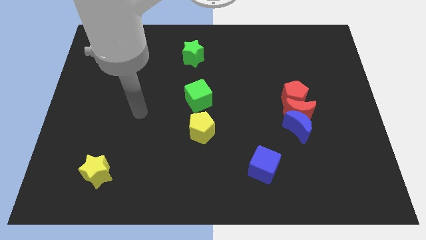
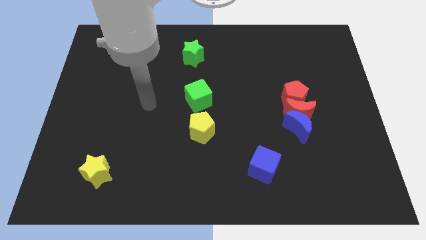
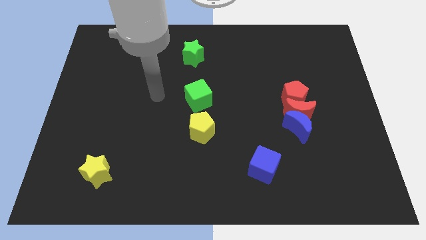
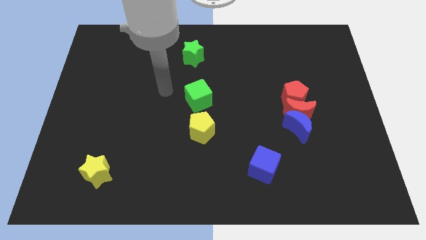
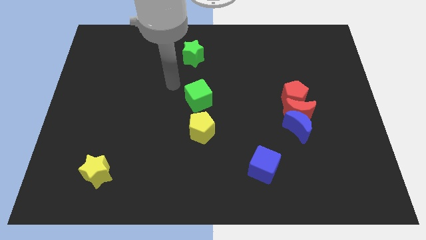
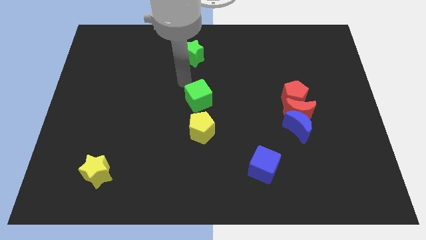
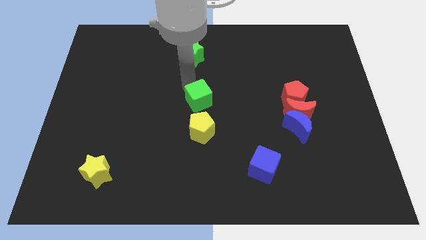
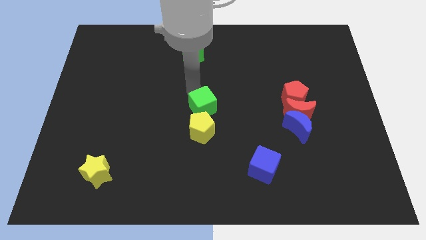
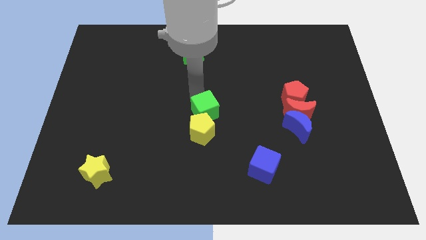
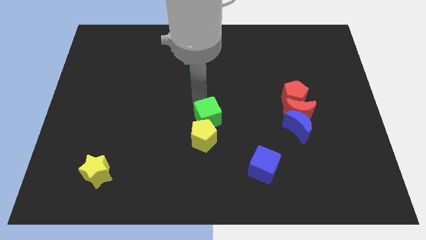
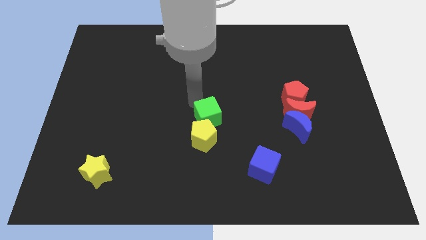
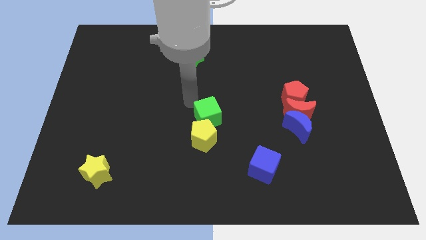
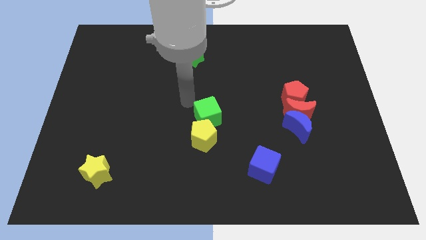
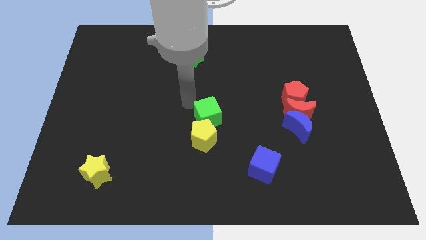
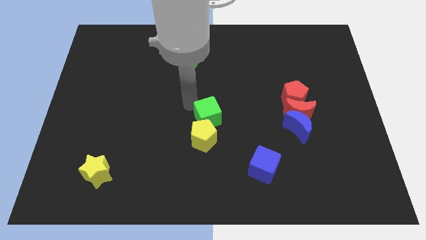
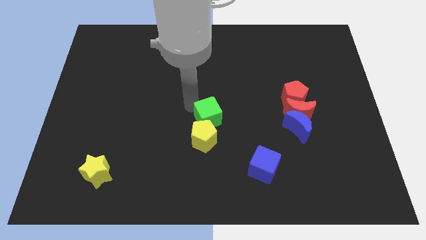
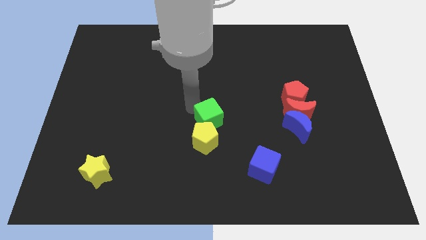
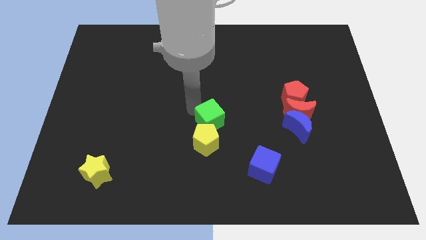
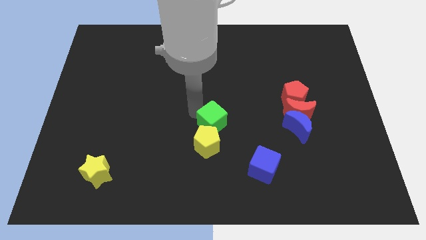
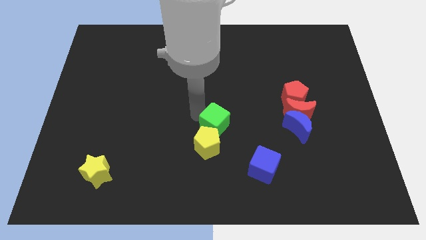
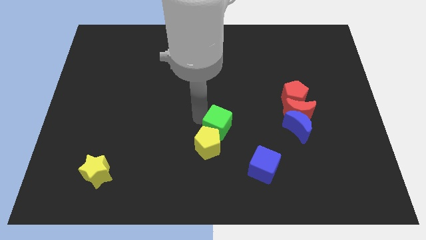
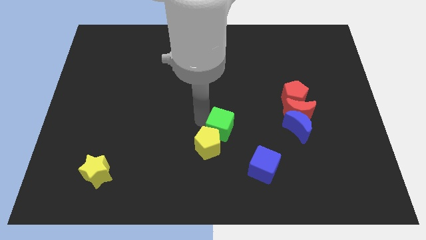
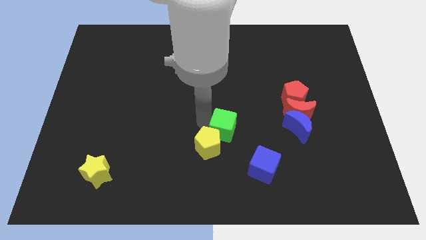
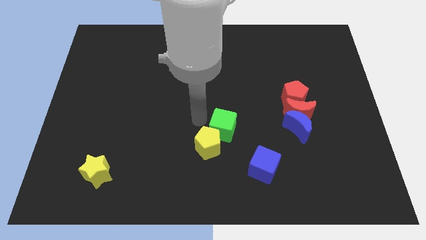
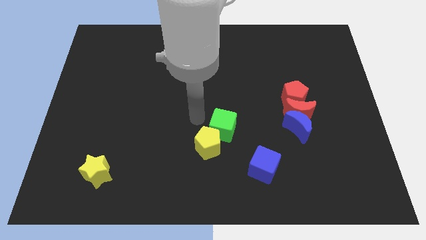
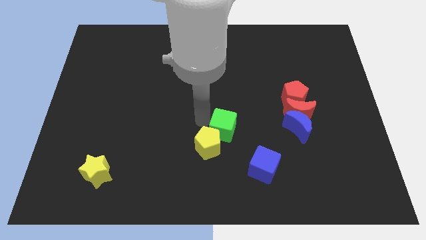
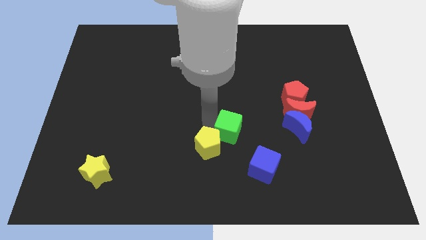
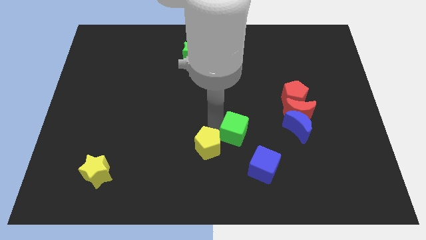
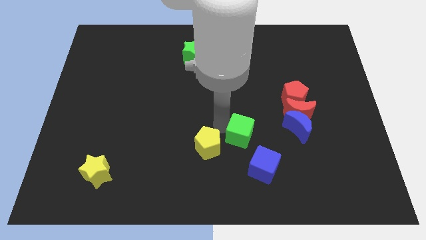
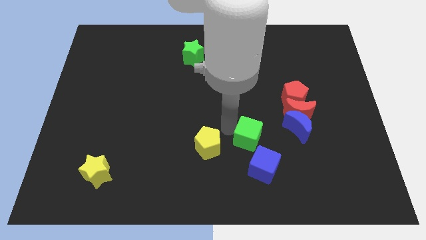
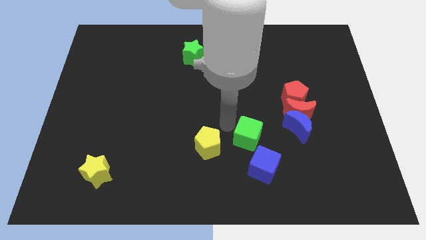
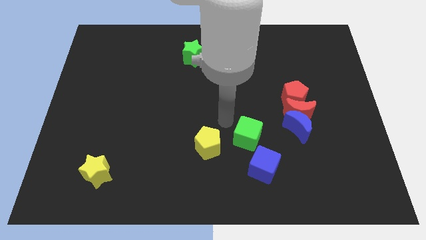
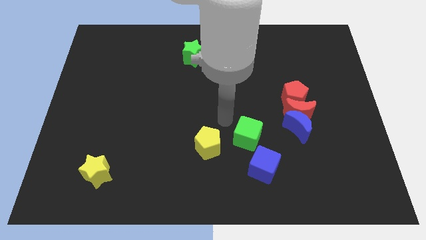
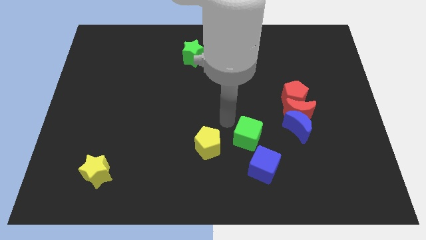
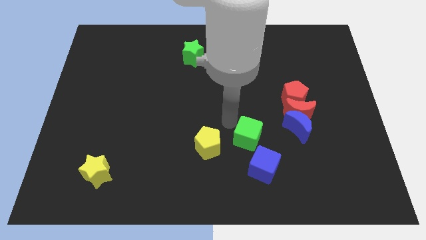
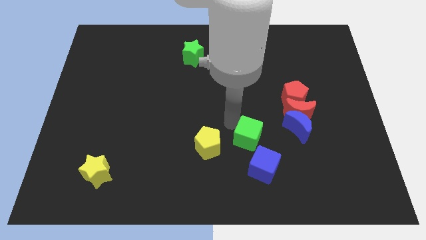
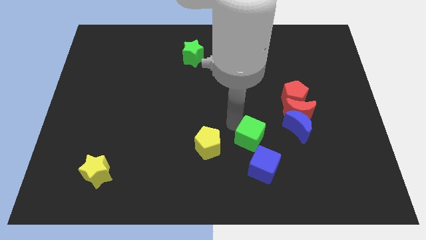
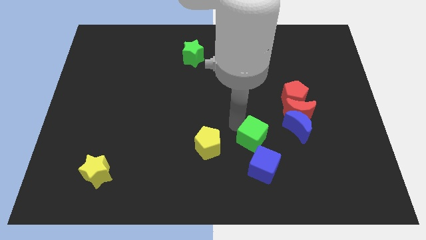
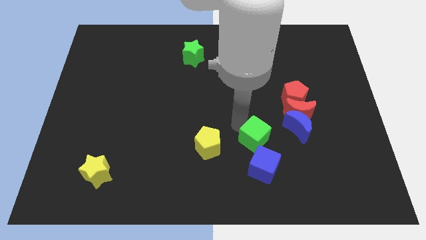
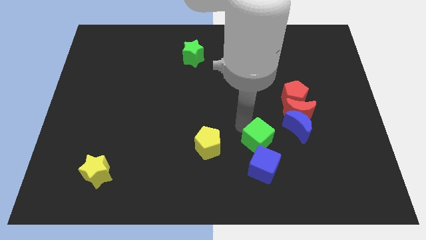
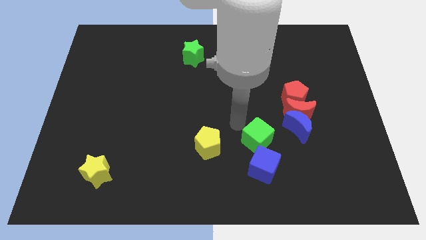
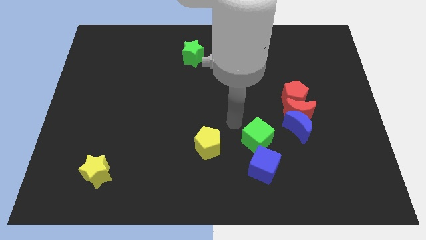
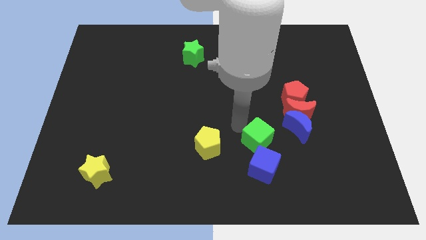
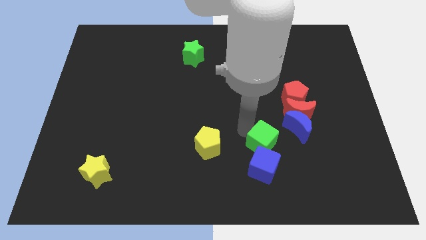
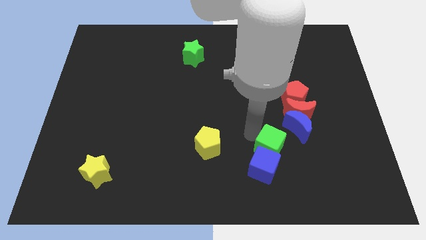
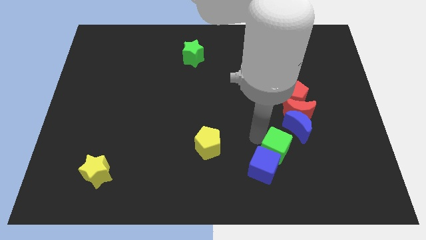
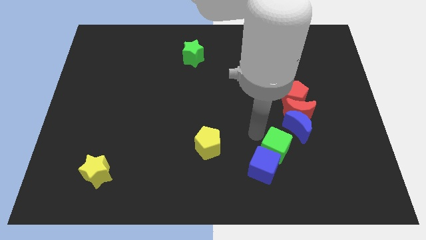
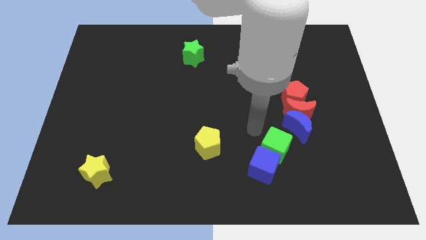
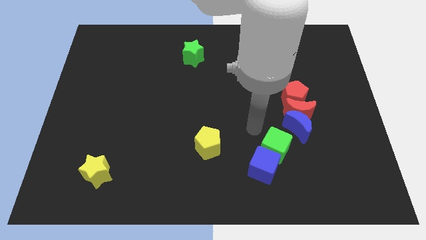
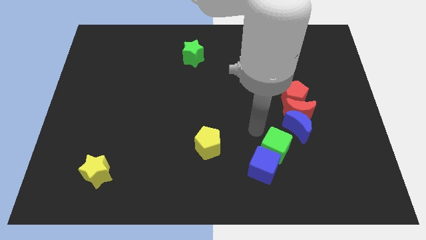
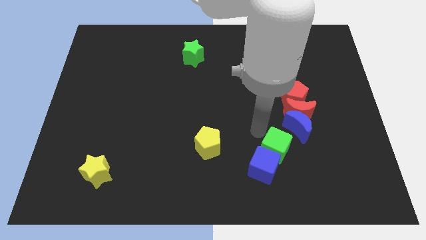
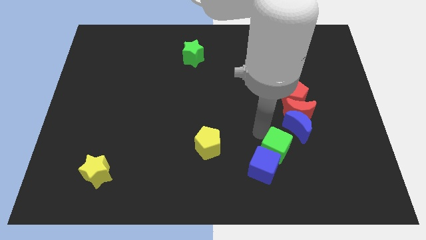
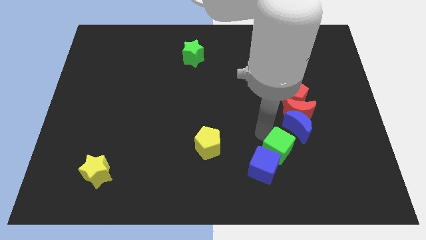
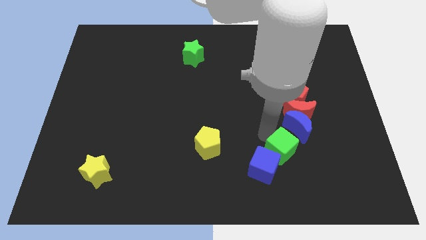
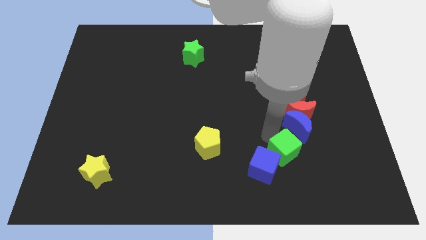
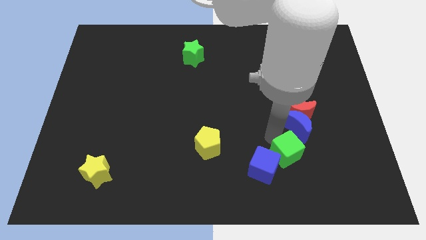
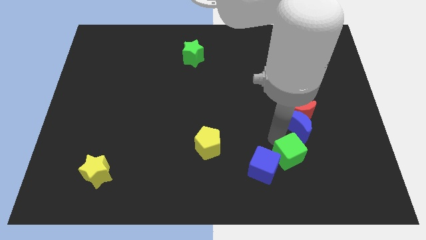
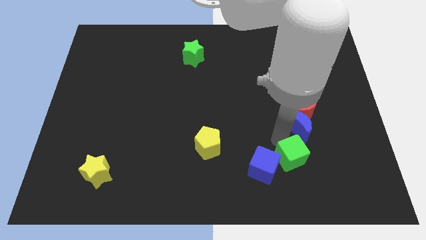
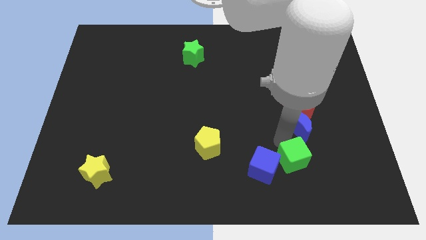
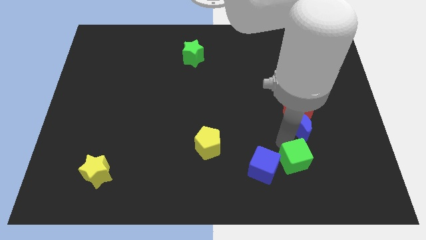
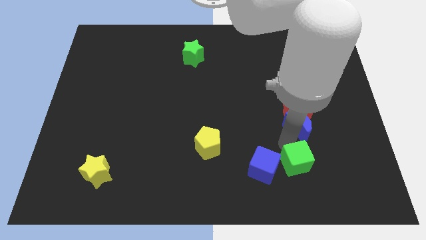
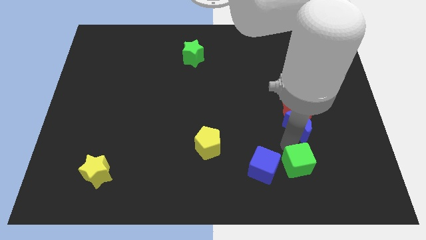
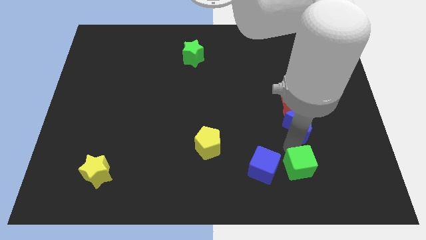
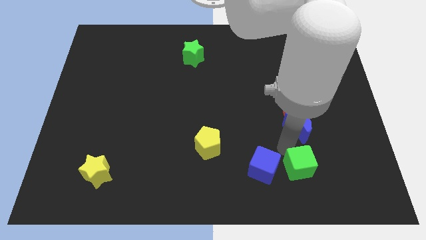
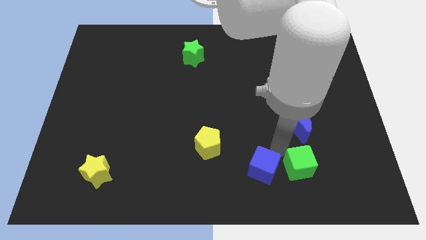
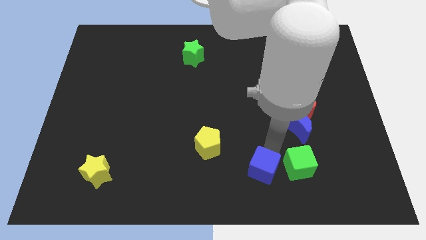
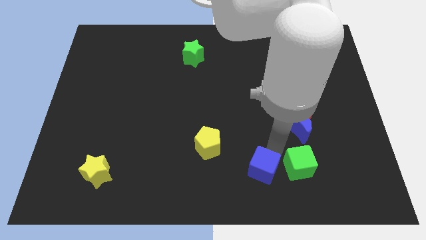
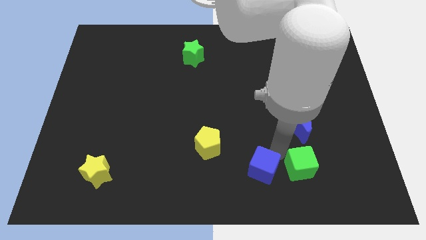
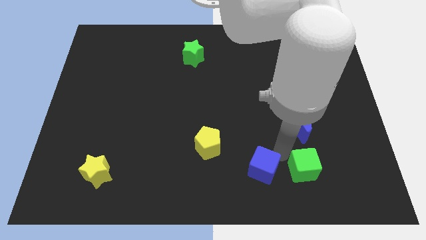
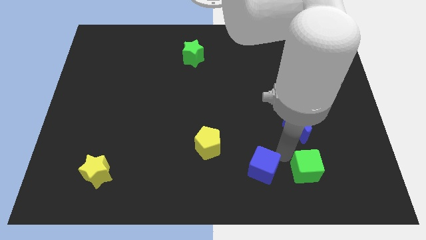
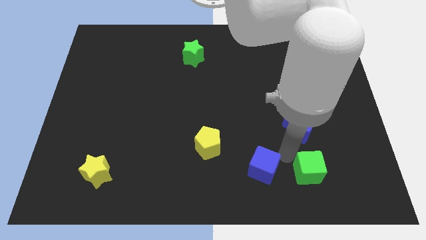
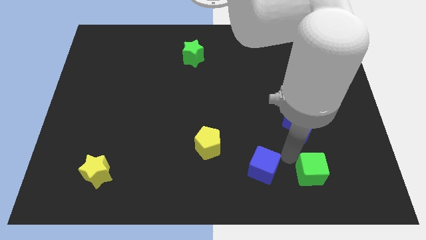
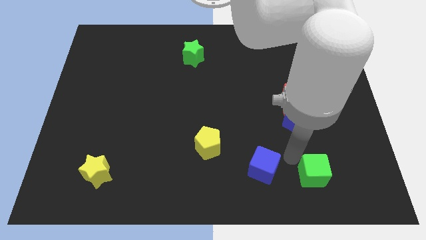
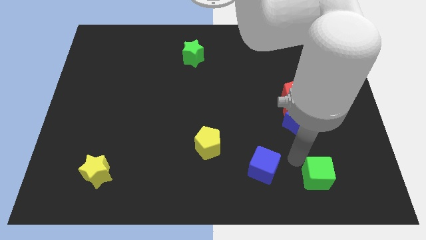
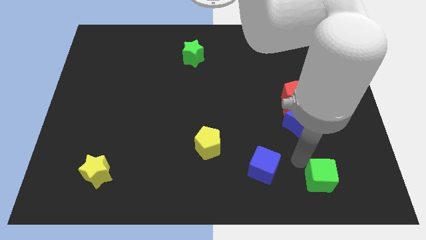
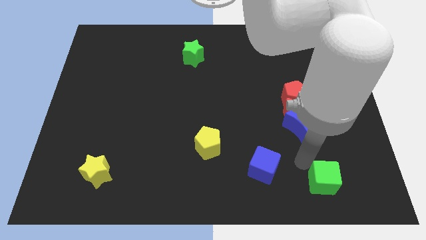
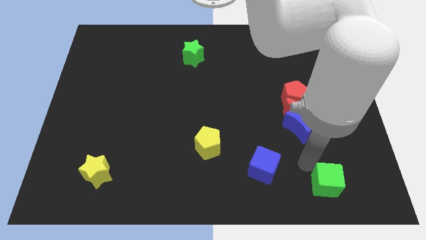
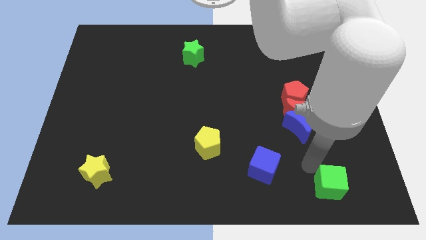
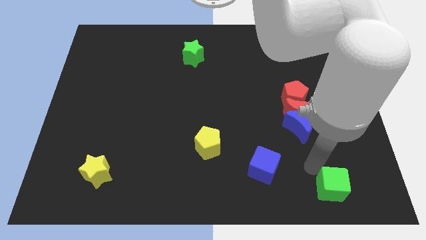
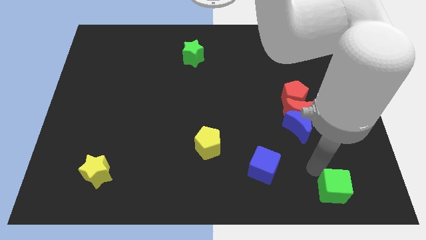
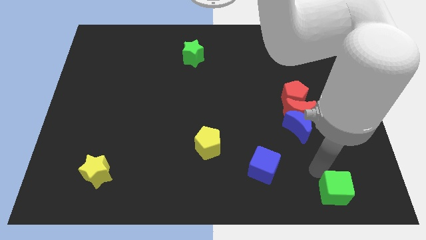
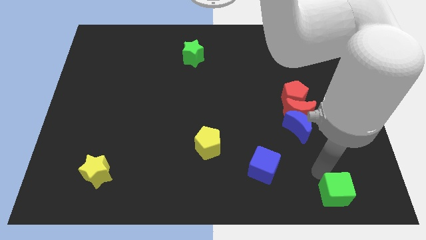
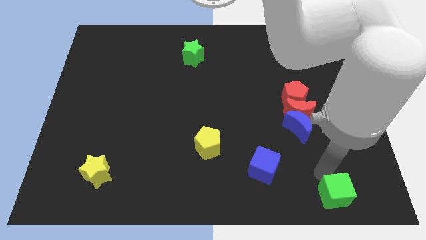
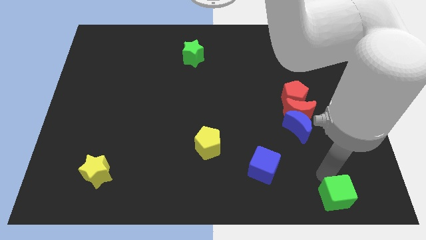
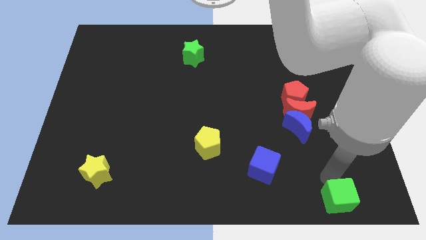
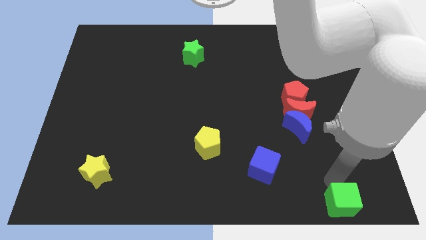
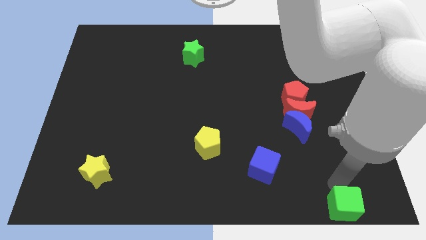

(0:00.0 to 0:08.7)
put the green cube to the lower right corner
